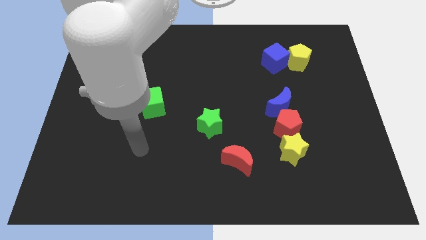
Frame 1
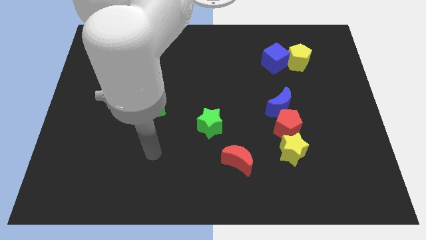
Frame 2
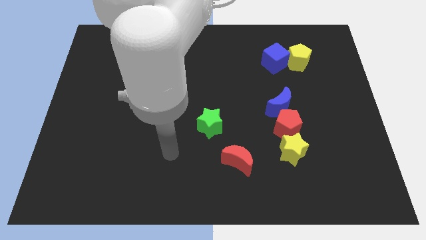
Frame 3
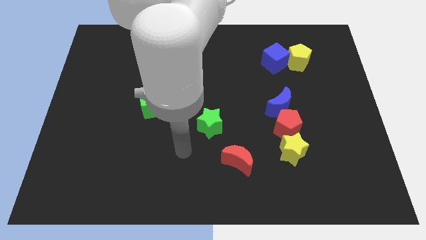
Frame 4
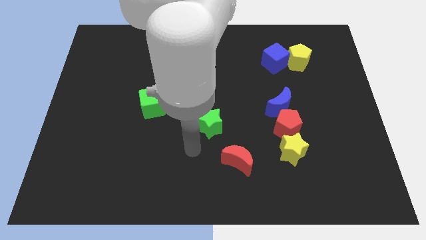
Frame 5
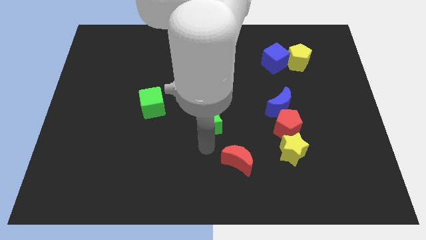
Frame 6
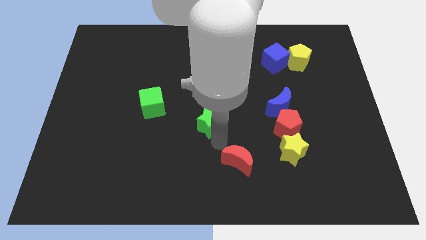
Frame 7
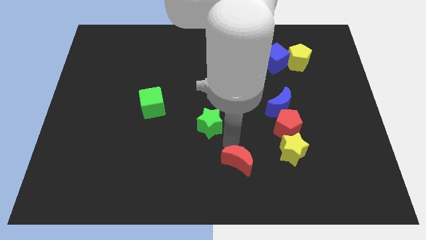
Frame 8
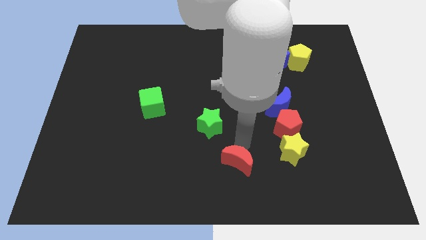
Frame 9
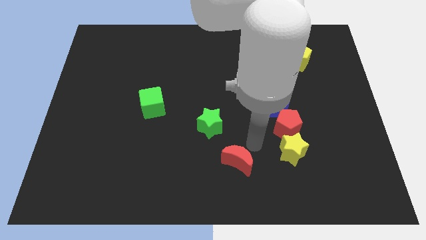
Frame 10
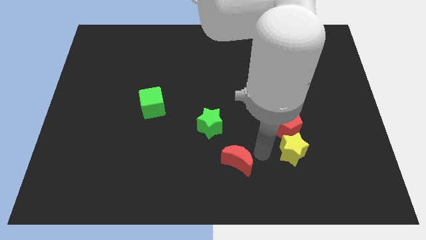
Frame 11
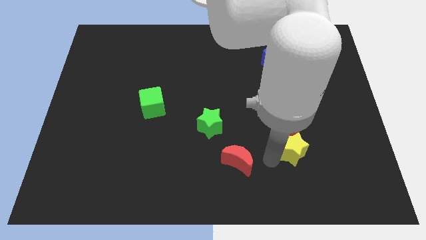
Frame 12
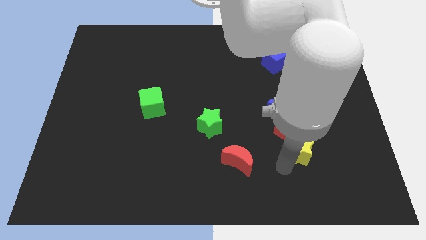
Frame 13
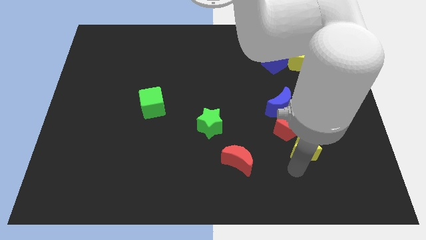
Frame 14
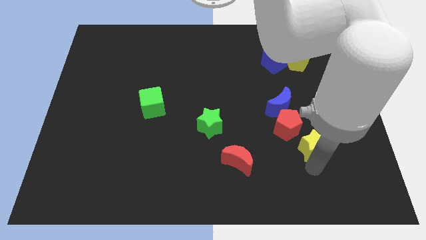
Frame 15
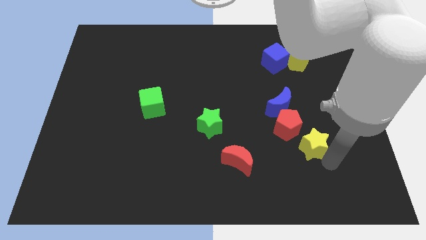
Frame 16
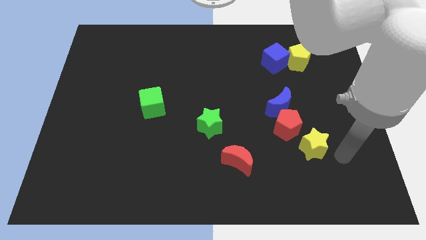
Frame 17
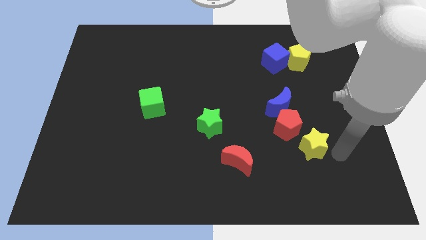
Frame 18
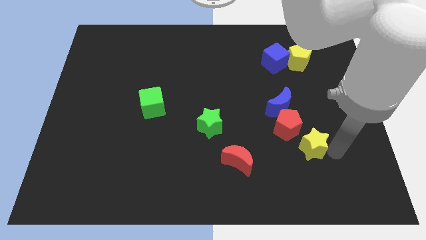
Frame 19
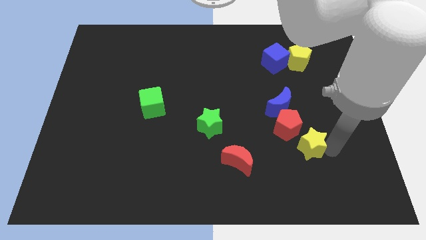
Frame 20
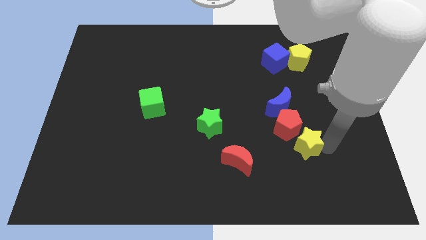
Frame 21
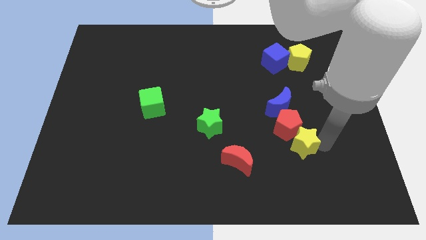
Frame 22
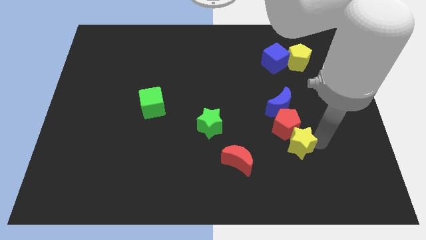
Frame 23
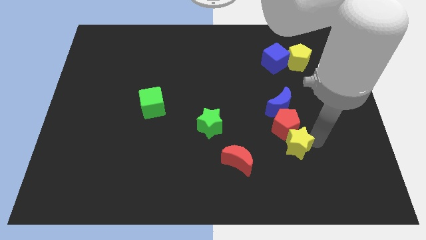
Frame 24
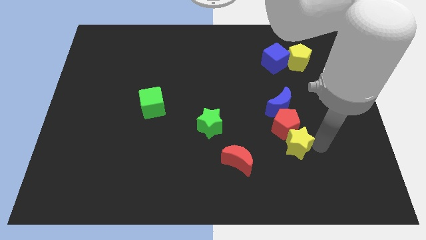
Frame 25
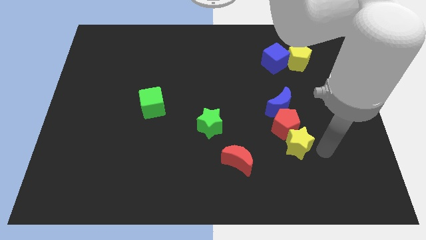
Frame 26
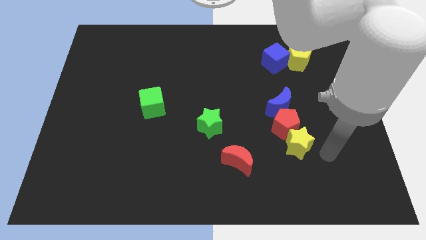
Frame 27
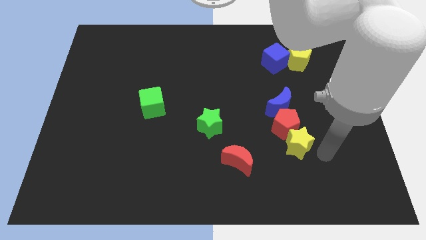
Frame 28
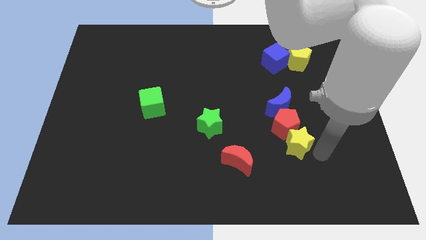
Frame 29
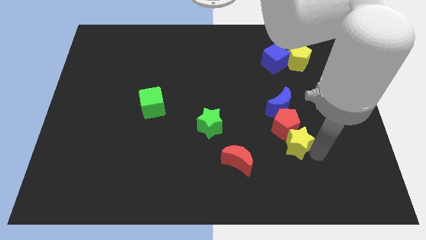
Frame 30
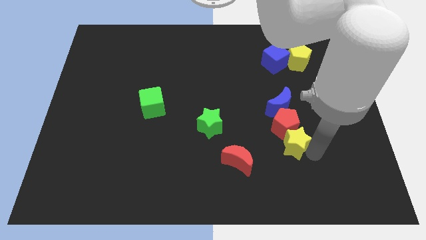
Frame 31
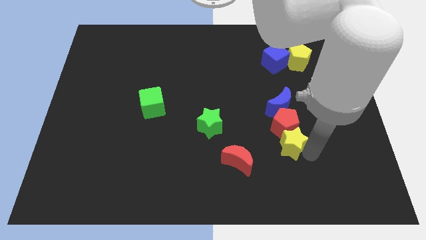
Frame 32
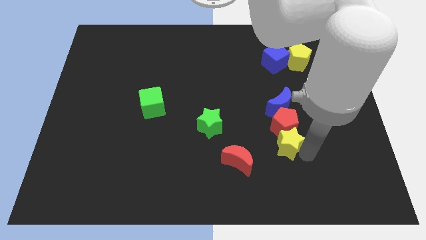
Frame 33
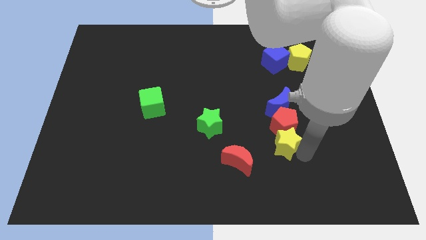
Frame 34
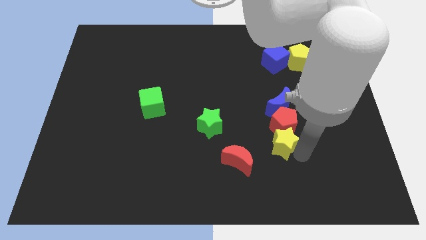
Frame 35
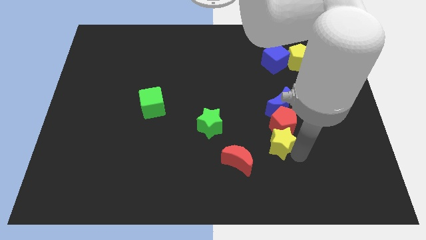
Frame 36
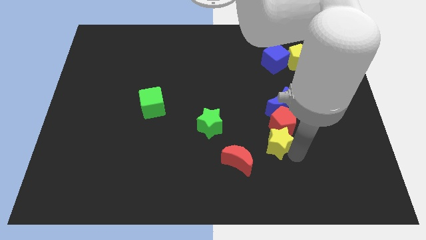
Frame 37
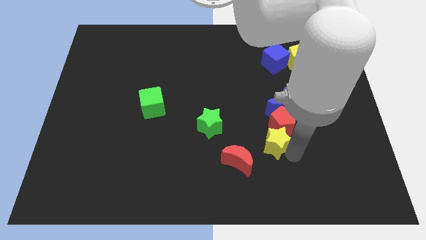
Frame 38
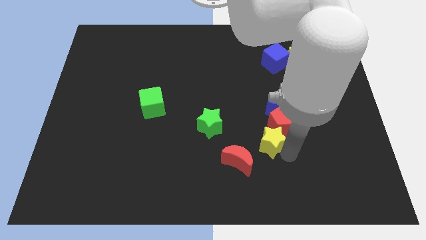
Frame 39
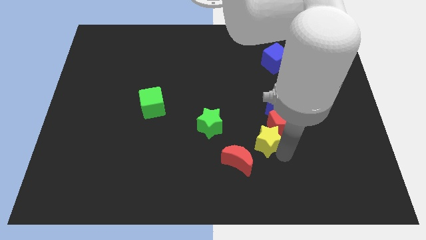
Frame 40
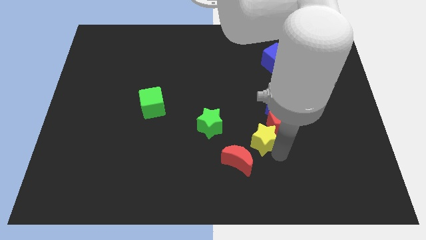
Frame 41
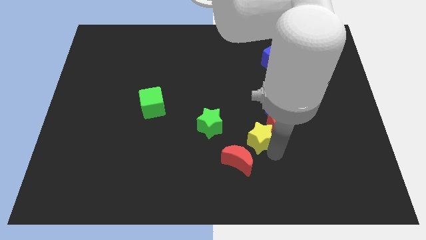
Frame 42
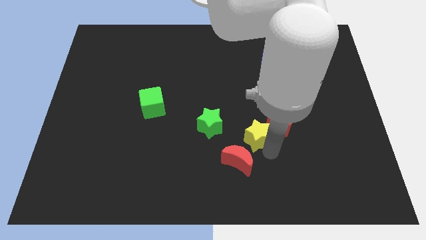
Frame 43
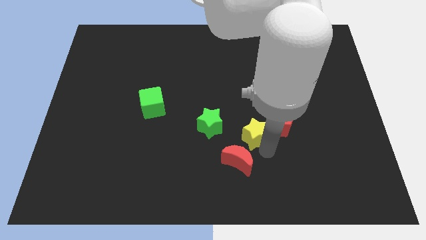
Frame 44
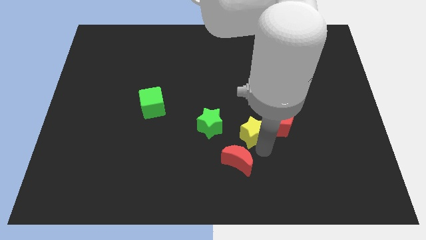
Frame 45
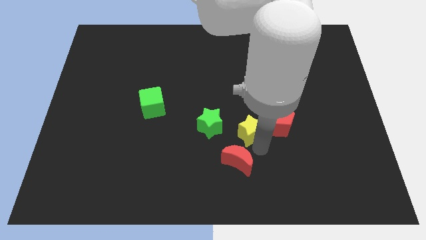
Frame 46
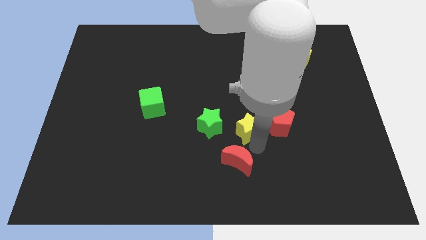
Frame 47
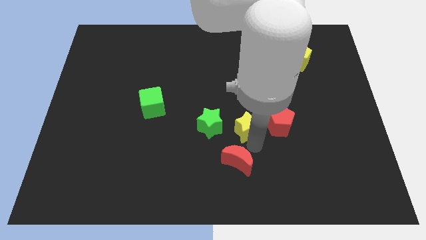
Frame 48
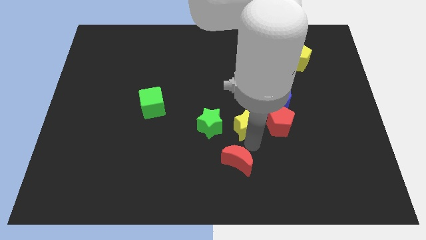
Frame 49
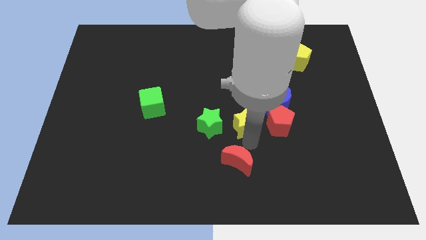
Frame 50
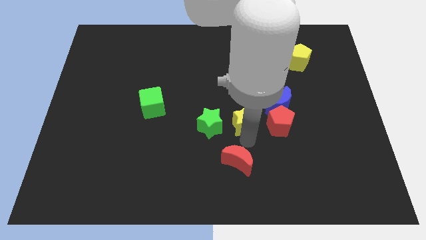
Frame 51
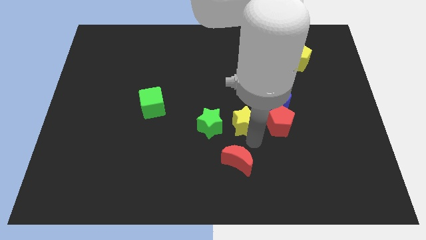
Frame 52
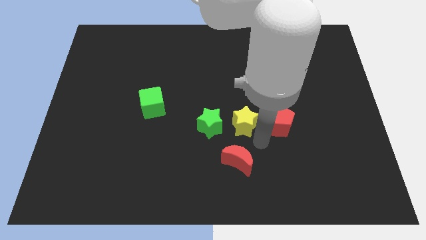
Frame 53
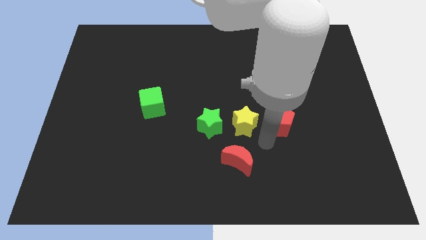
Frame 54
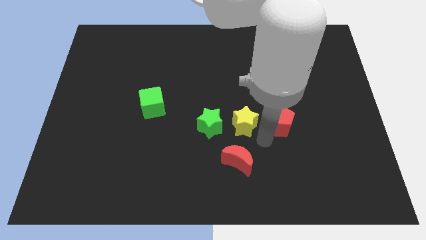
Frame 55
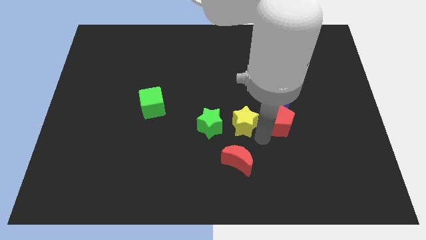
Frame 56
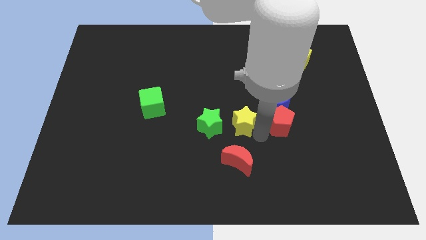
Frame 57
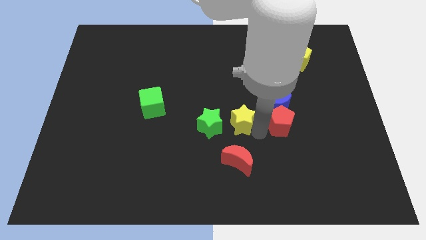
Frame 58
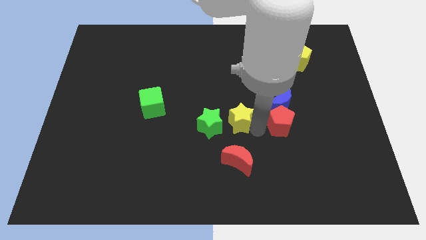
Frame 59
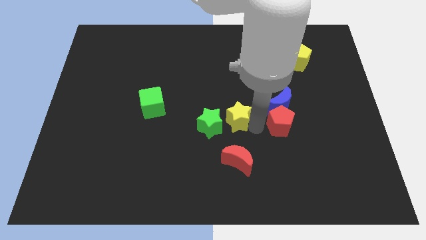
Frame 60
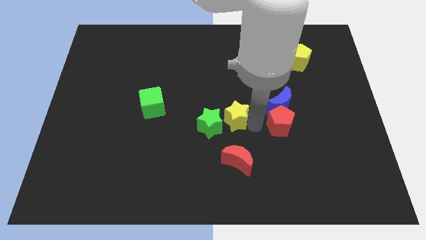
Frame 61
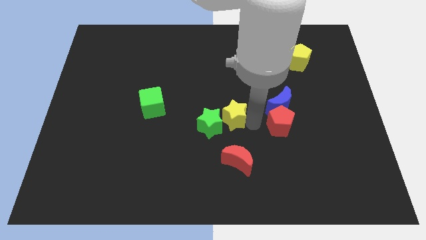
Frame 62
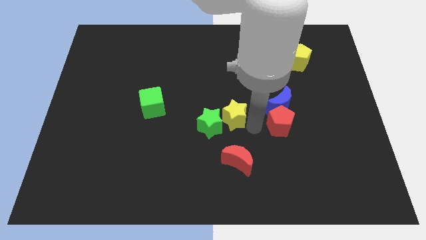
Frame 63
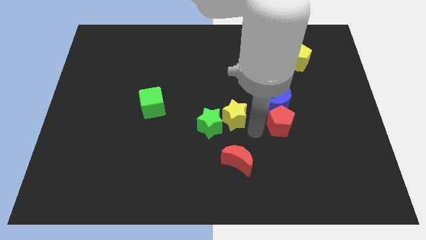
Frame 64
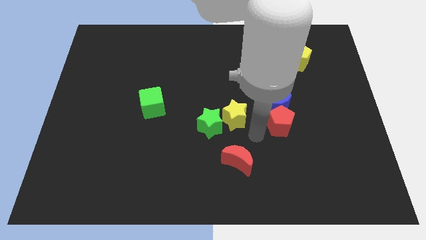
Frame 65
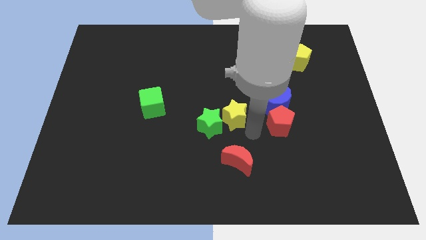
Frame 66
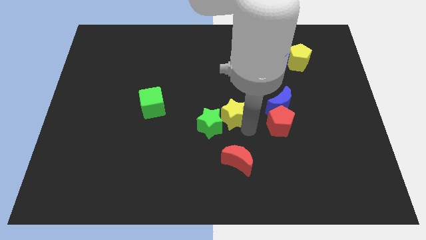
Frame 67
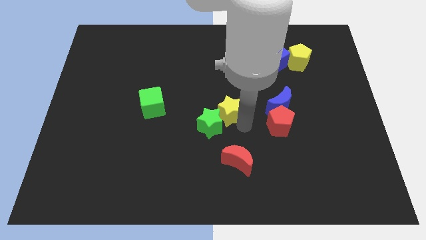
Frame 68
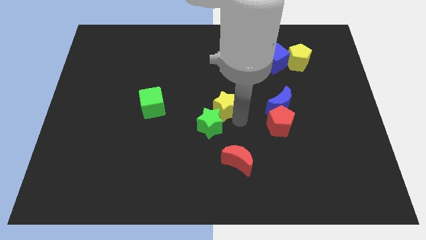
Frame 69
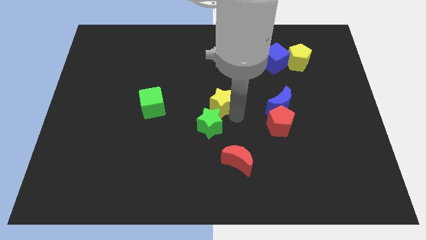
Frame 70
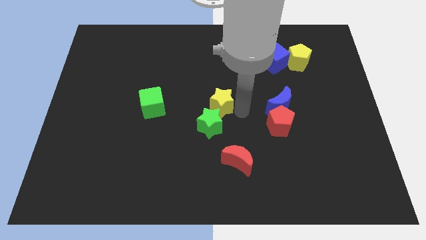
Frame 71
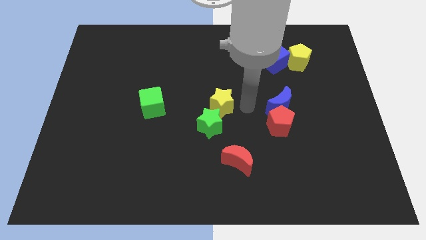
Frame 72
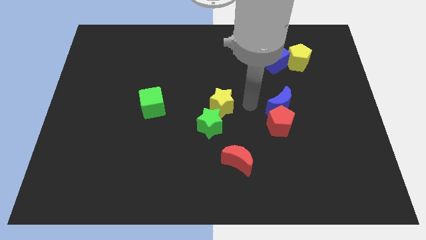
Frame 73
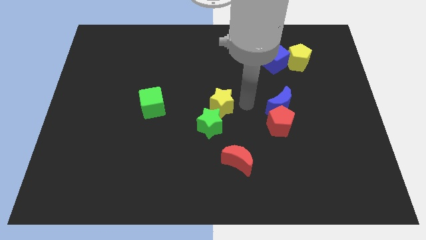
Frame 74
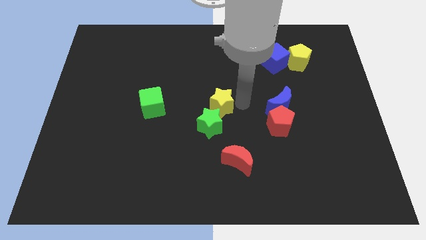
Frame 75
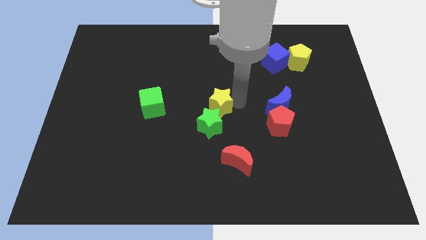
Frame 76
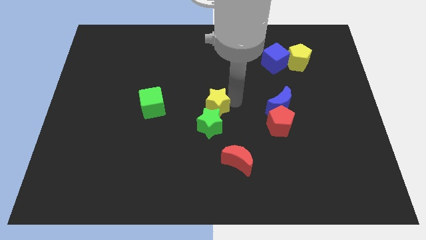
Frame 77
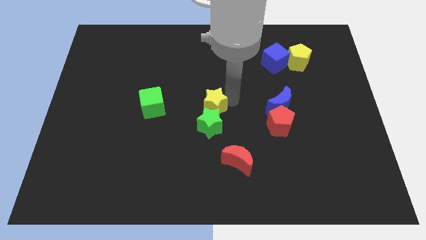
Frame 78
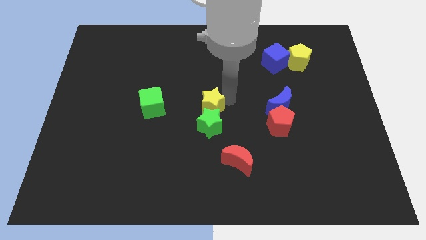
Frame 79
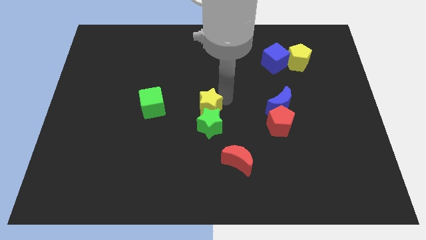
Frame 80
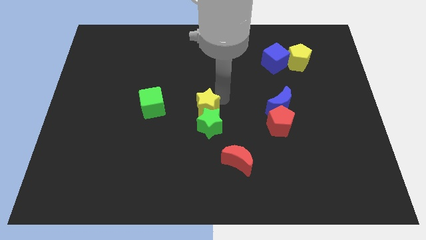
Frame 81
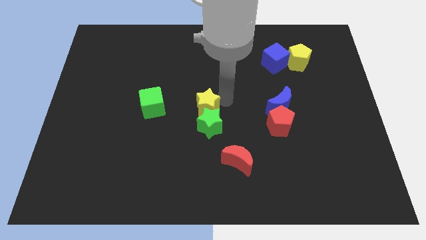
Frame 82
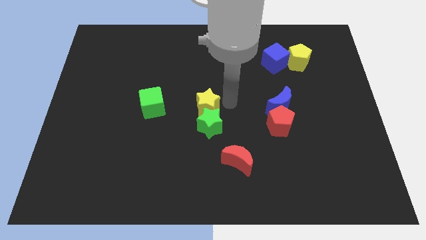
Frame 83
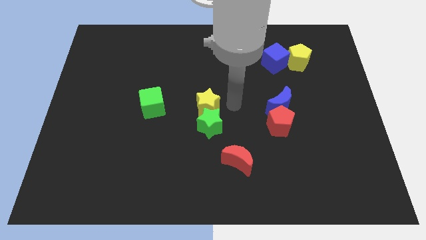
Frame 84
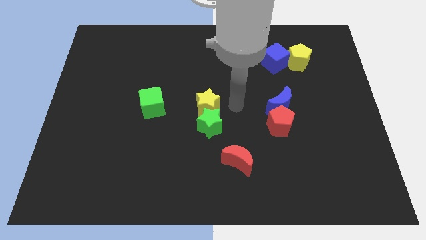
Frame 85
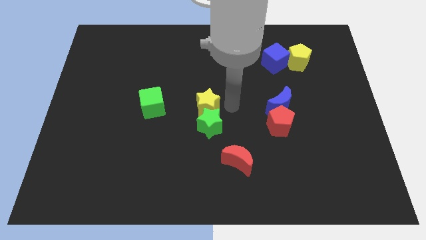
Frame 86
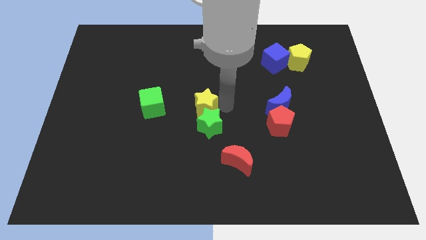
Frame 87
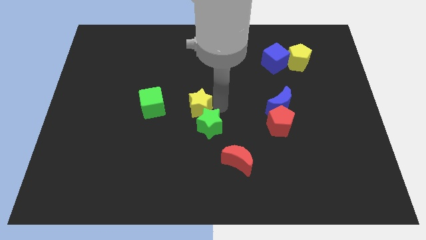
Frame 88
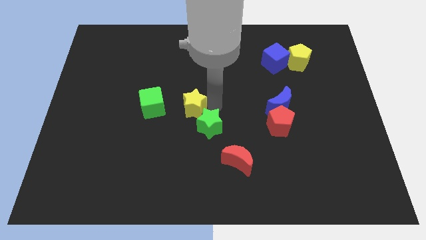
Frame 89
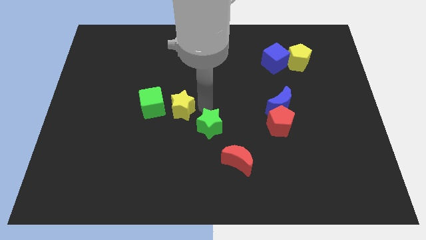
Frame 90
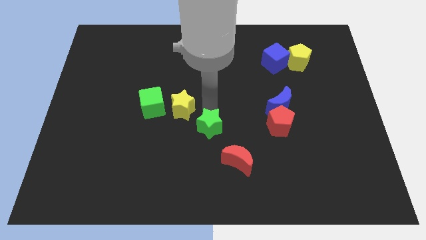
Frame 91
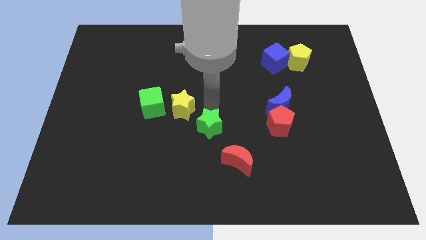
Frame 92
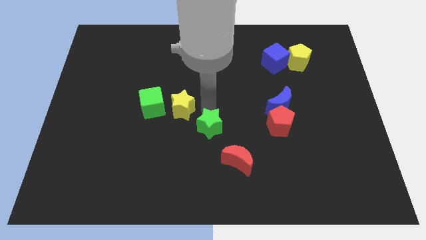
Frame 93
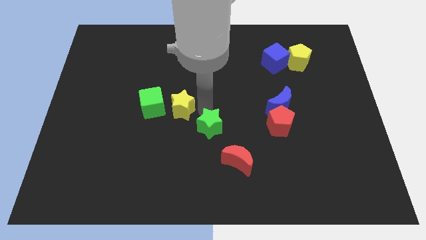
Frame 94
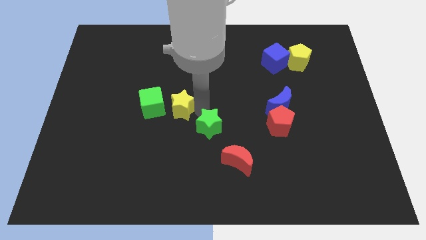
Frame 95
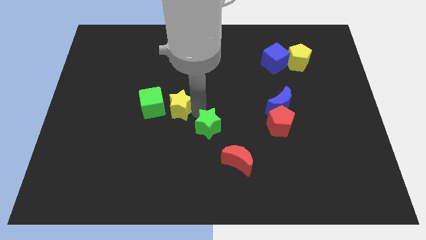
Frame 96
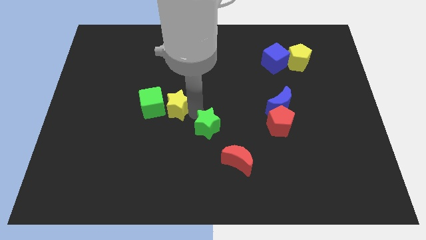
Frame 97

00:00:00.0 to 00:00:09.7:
slide the yellow star to the green cube
